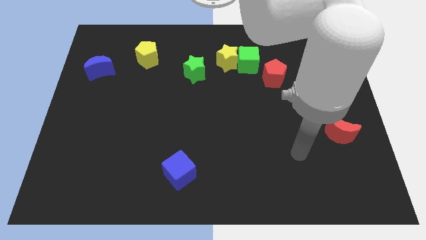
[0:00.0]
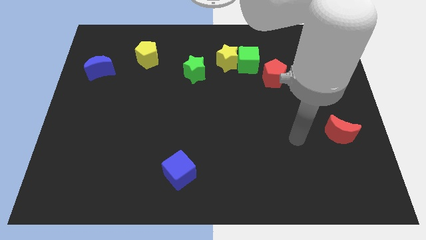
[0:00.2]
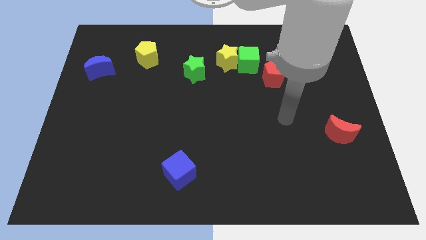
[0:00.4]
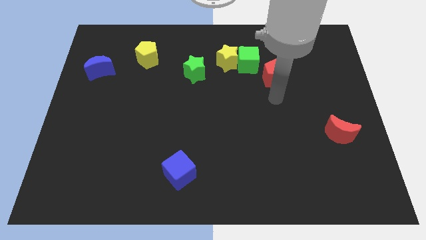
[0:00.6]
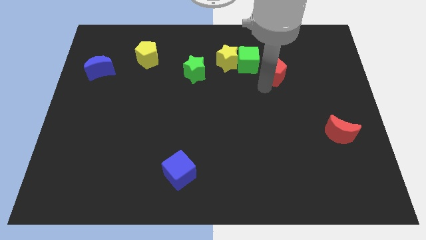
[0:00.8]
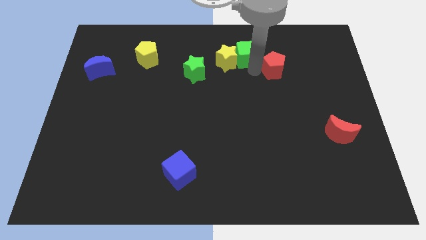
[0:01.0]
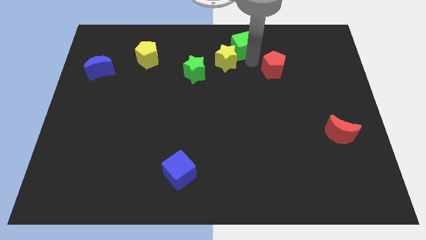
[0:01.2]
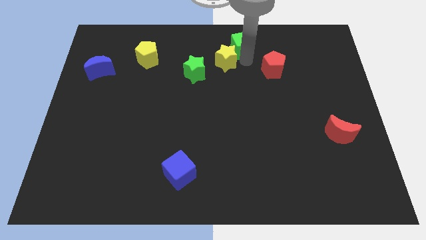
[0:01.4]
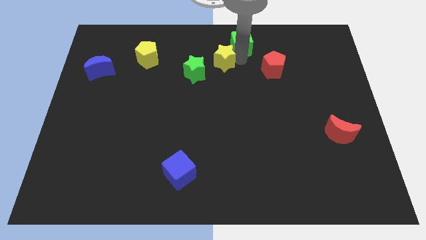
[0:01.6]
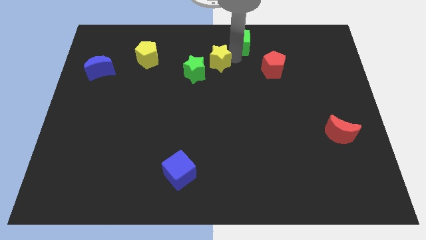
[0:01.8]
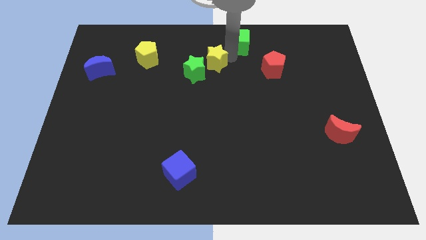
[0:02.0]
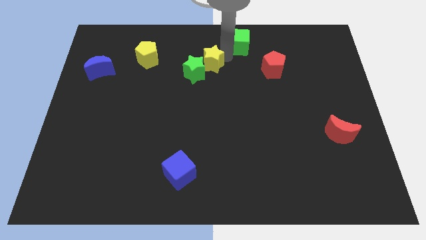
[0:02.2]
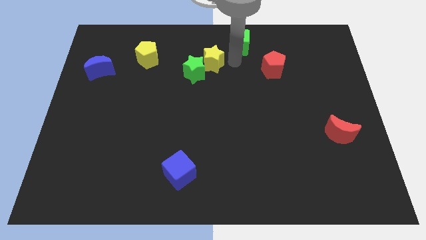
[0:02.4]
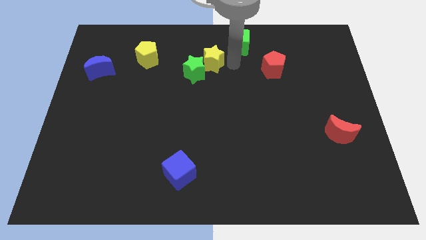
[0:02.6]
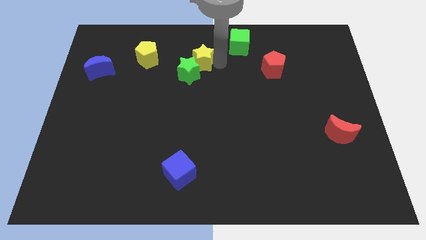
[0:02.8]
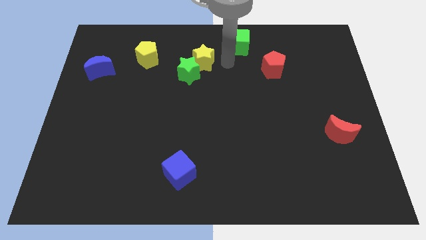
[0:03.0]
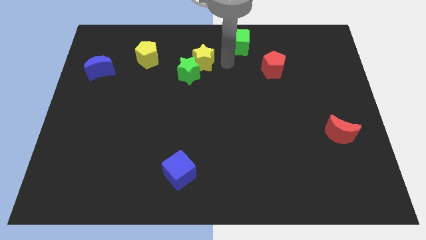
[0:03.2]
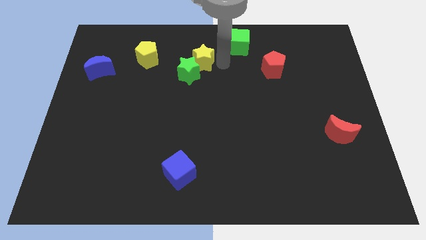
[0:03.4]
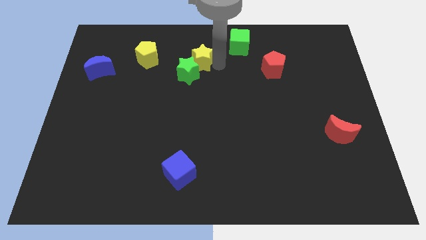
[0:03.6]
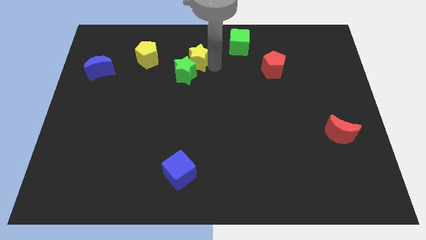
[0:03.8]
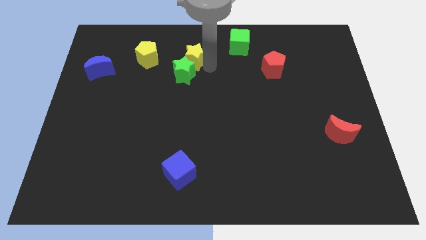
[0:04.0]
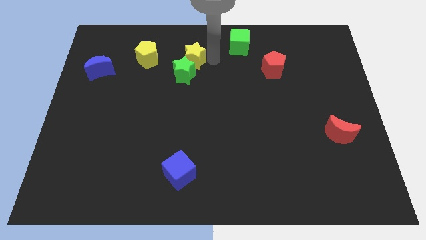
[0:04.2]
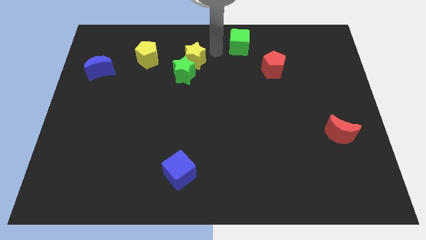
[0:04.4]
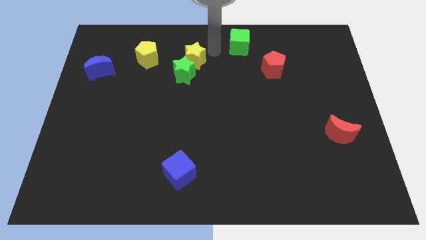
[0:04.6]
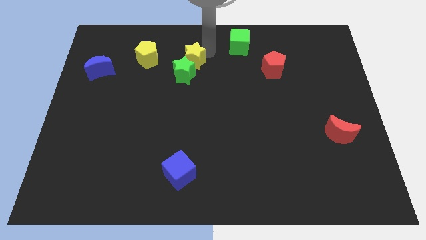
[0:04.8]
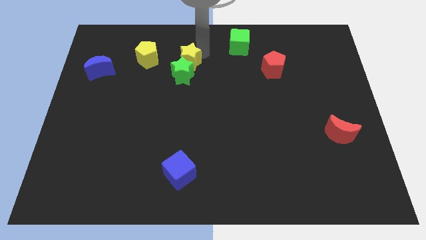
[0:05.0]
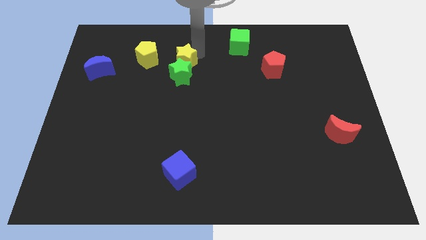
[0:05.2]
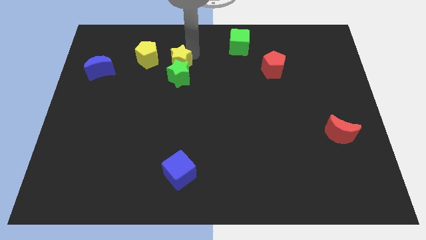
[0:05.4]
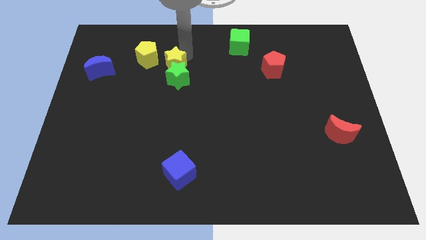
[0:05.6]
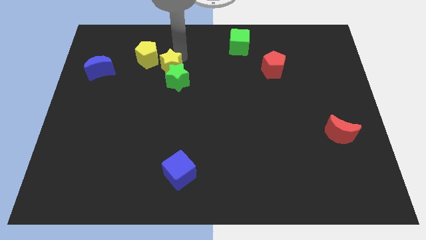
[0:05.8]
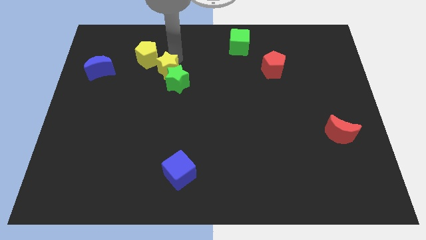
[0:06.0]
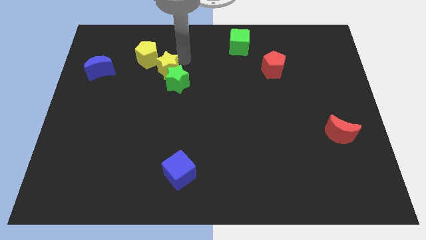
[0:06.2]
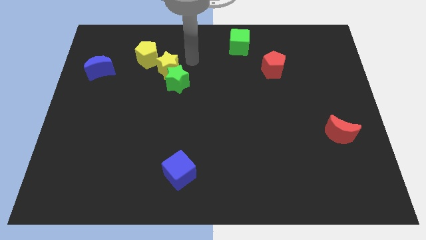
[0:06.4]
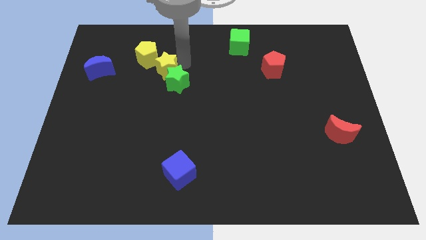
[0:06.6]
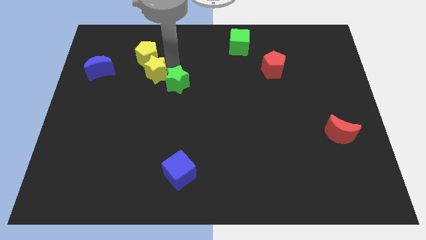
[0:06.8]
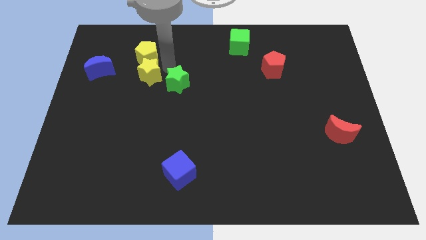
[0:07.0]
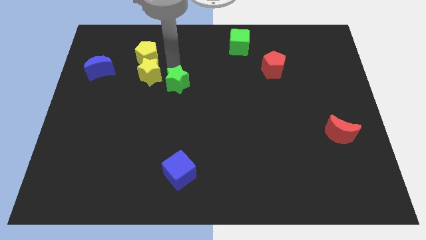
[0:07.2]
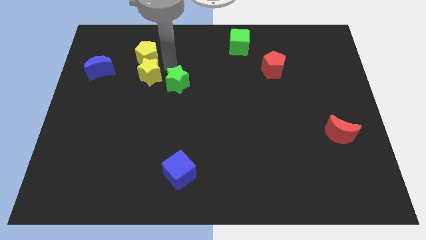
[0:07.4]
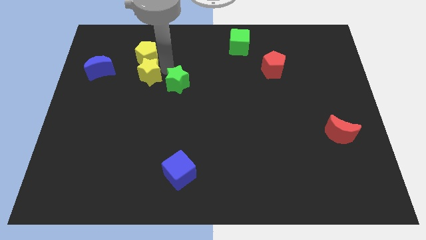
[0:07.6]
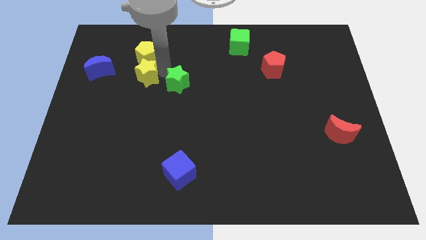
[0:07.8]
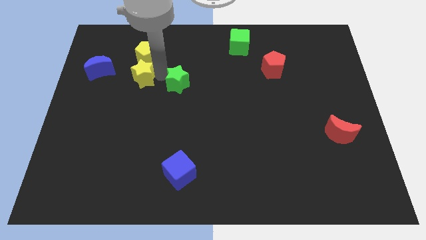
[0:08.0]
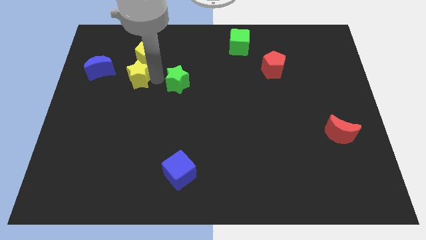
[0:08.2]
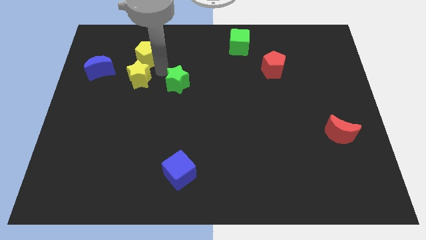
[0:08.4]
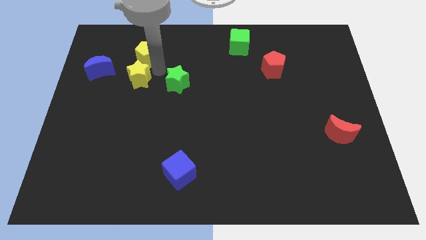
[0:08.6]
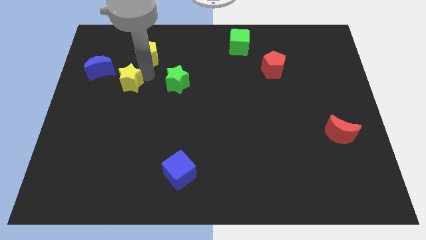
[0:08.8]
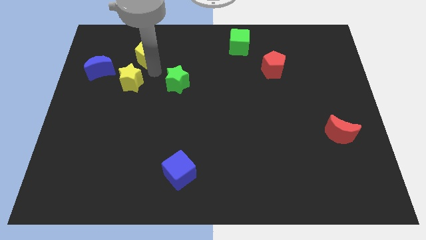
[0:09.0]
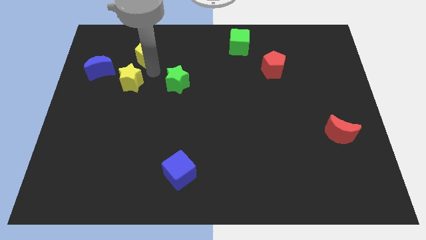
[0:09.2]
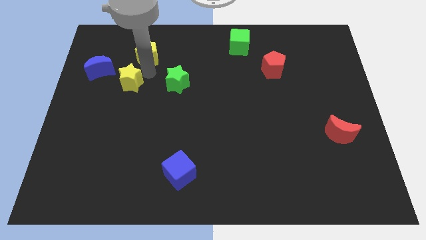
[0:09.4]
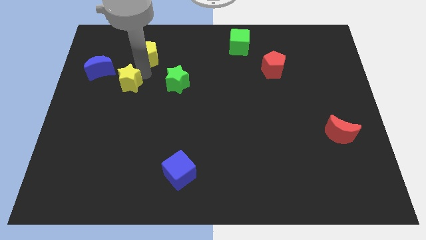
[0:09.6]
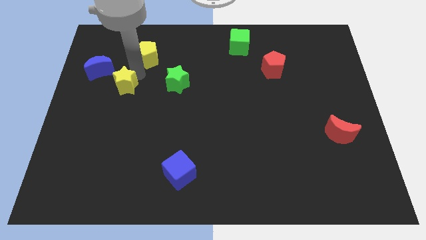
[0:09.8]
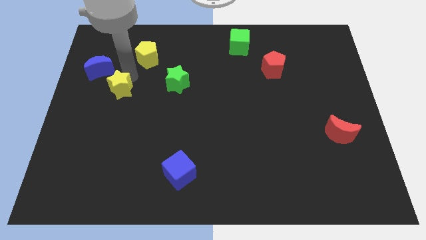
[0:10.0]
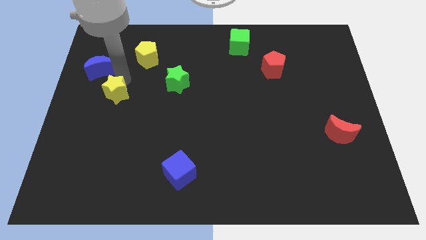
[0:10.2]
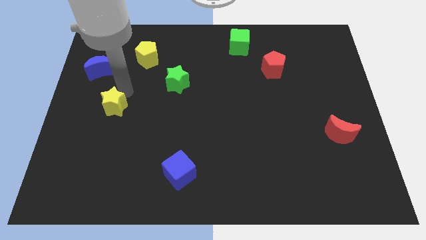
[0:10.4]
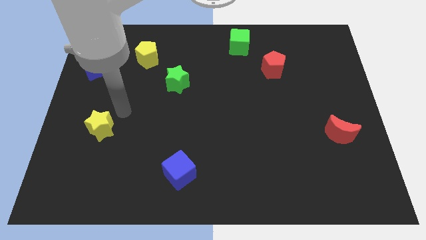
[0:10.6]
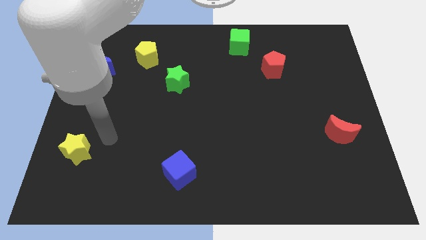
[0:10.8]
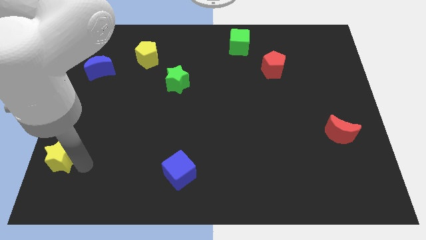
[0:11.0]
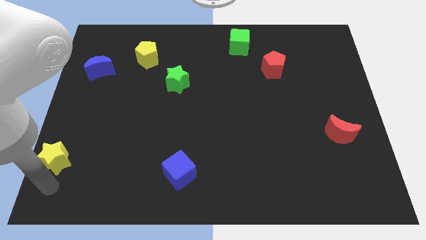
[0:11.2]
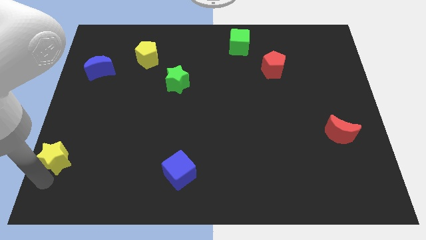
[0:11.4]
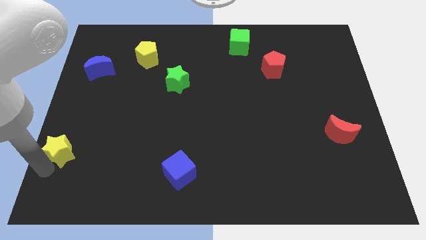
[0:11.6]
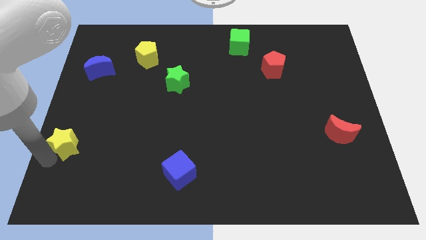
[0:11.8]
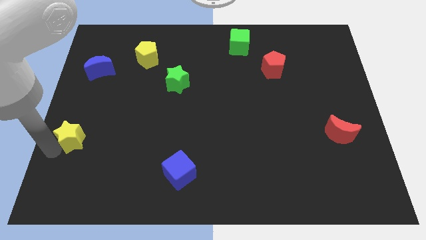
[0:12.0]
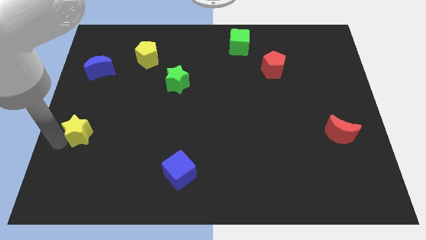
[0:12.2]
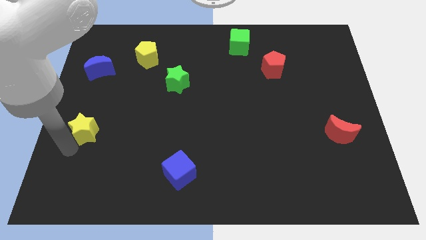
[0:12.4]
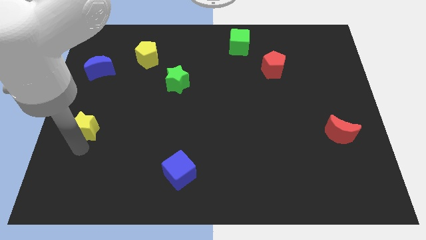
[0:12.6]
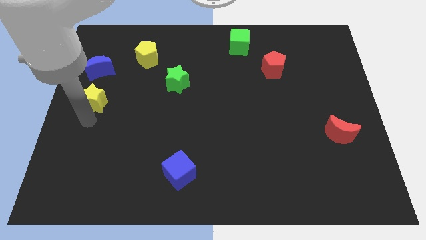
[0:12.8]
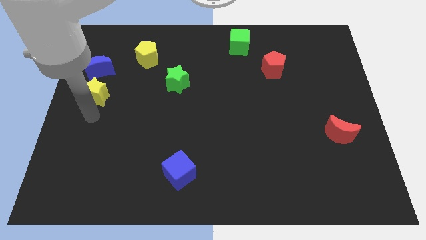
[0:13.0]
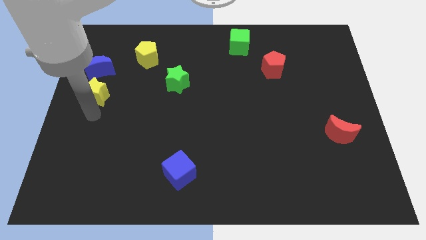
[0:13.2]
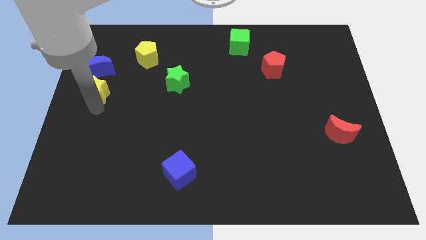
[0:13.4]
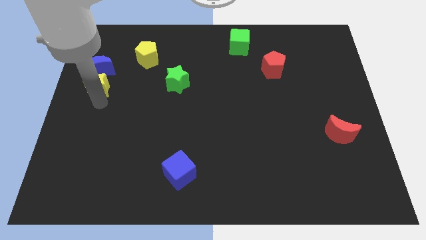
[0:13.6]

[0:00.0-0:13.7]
move the yellow star close to the blue moon
